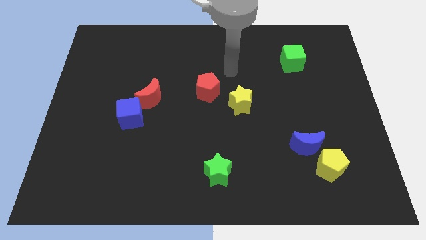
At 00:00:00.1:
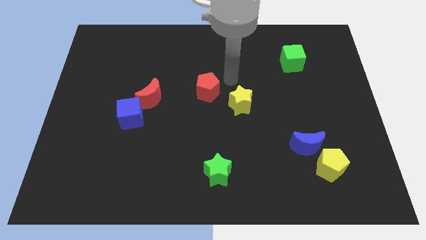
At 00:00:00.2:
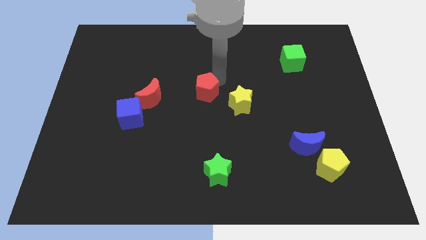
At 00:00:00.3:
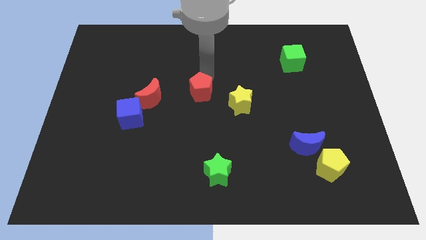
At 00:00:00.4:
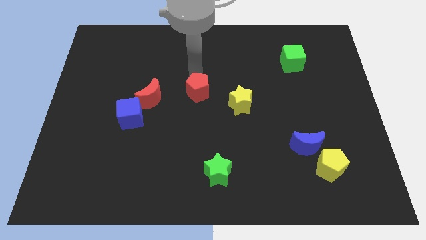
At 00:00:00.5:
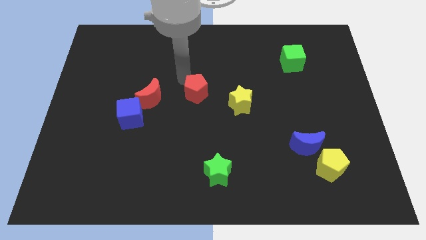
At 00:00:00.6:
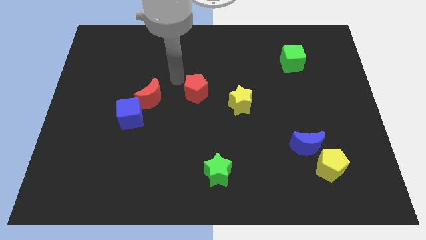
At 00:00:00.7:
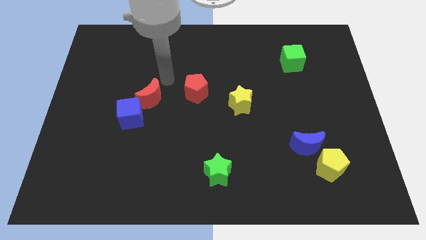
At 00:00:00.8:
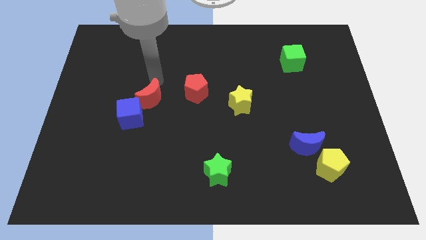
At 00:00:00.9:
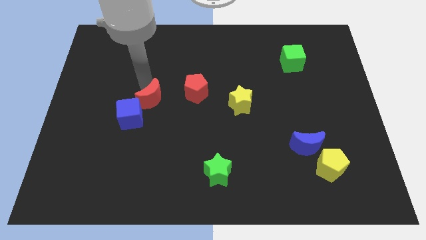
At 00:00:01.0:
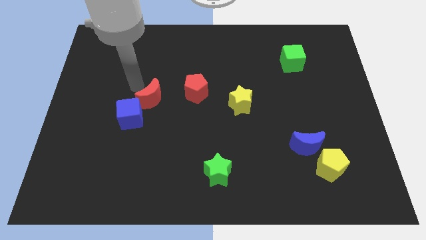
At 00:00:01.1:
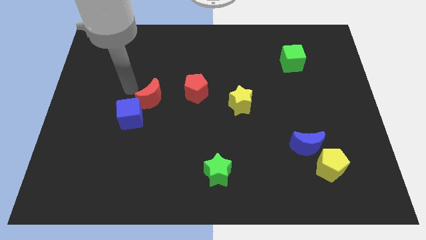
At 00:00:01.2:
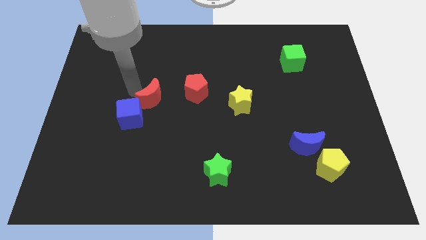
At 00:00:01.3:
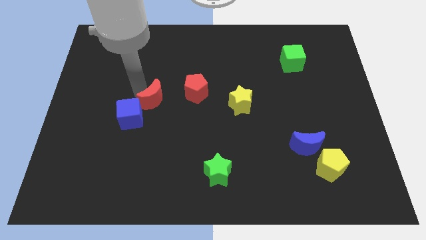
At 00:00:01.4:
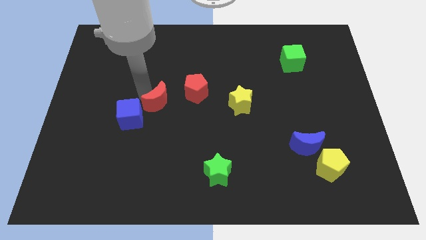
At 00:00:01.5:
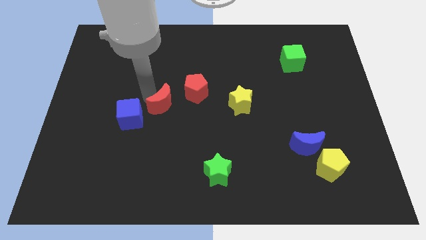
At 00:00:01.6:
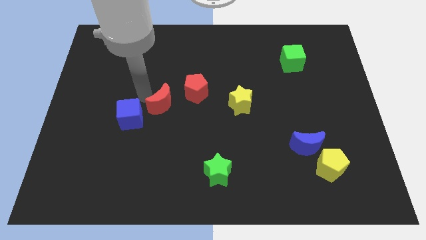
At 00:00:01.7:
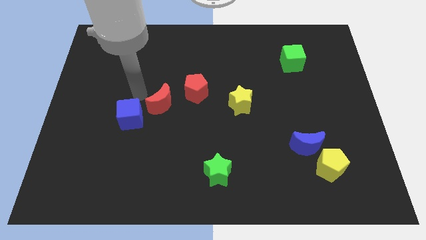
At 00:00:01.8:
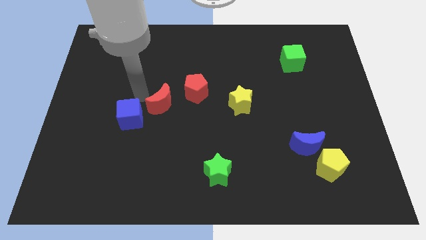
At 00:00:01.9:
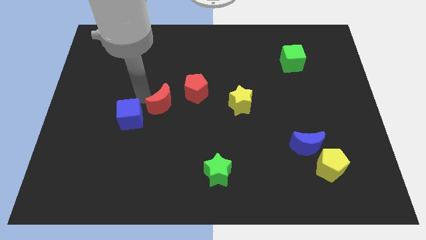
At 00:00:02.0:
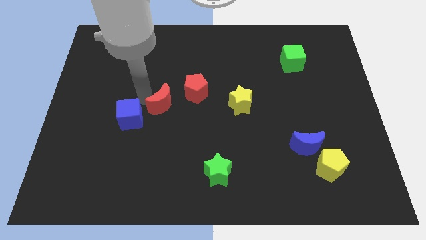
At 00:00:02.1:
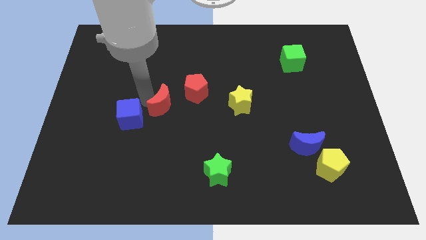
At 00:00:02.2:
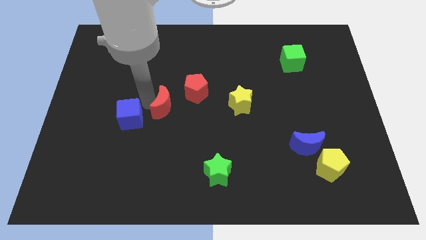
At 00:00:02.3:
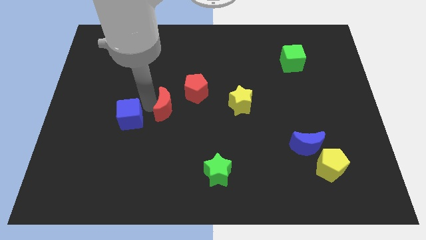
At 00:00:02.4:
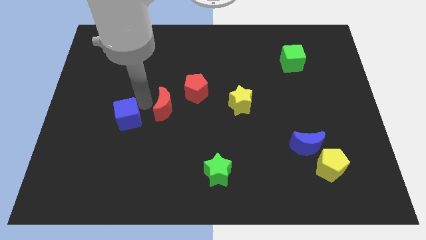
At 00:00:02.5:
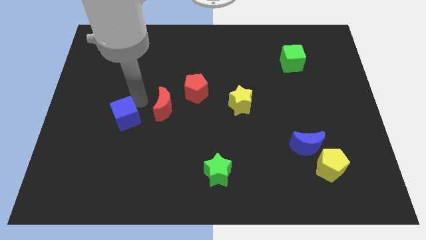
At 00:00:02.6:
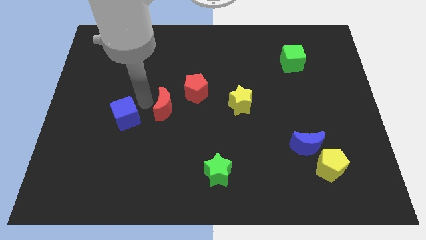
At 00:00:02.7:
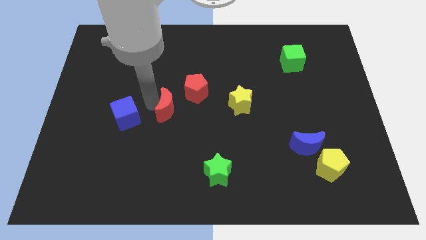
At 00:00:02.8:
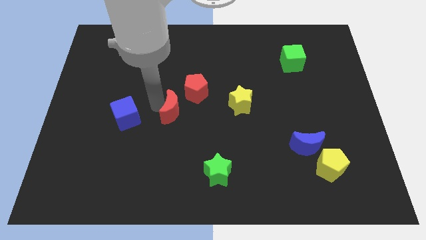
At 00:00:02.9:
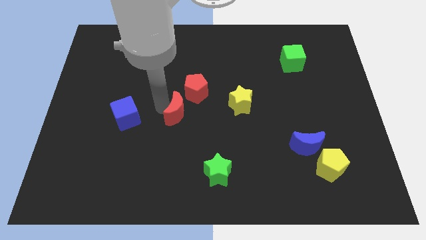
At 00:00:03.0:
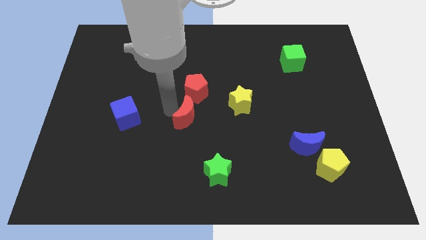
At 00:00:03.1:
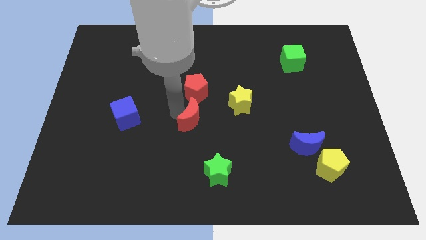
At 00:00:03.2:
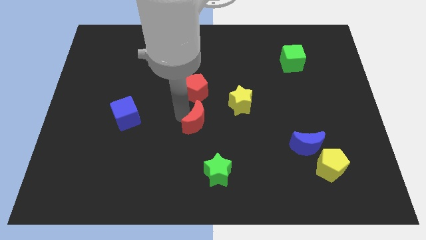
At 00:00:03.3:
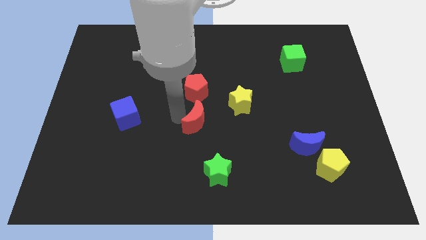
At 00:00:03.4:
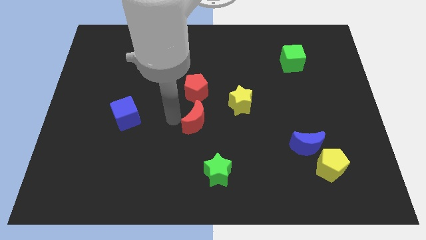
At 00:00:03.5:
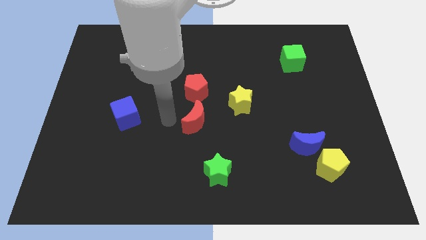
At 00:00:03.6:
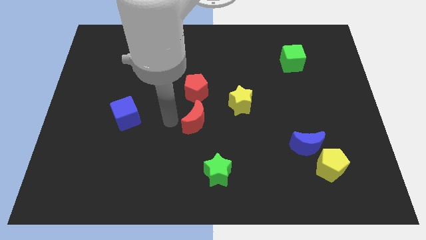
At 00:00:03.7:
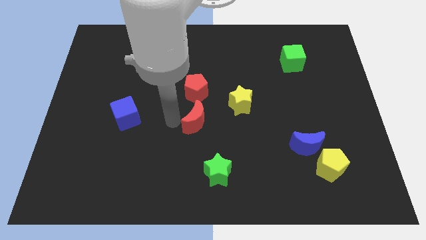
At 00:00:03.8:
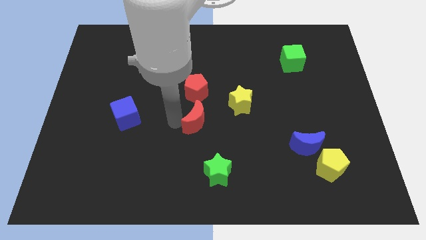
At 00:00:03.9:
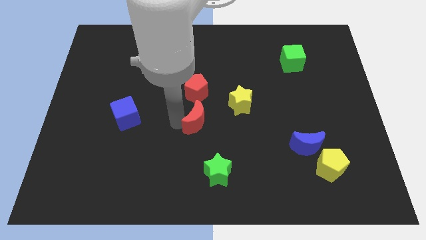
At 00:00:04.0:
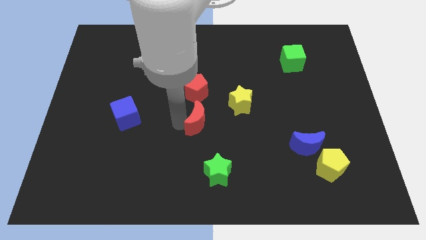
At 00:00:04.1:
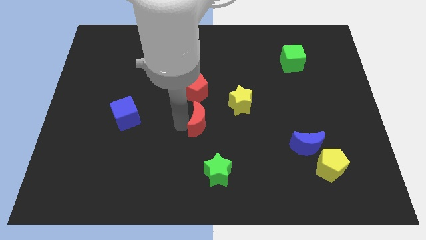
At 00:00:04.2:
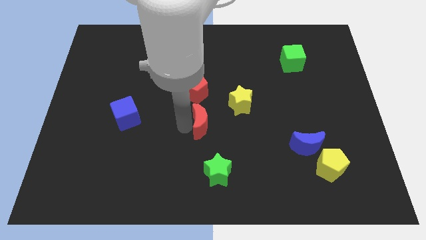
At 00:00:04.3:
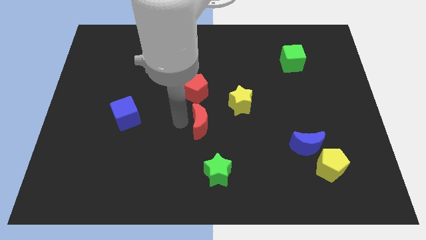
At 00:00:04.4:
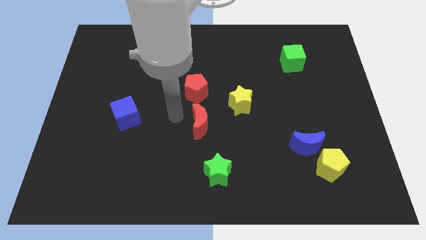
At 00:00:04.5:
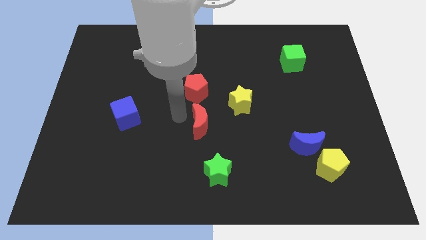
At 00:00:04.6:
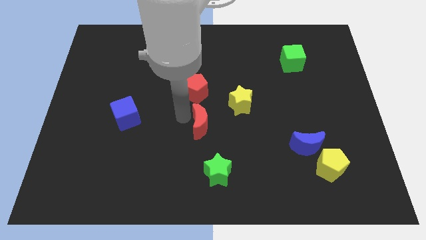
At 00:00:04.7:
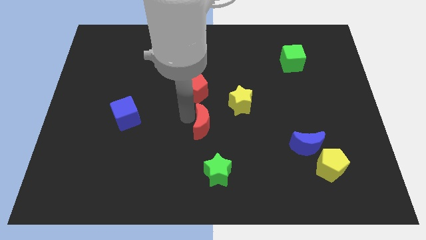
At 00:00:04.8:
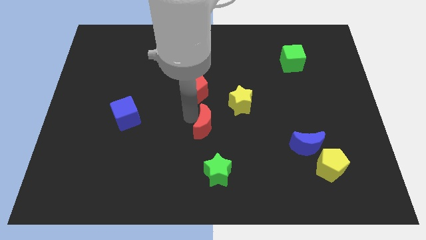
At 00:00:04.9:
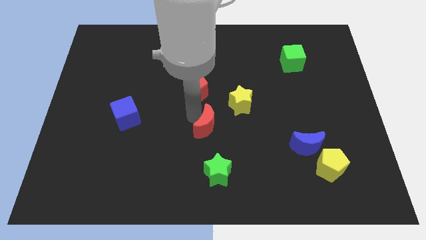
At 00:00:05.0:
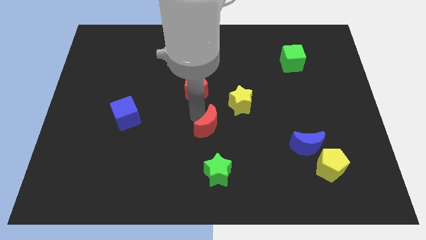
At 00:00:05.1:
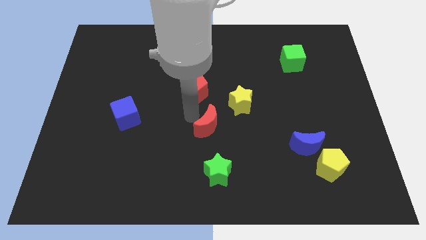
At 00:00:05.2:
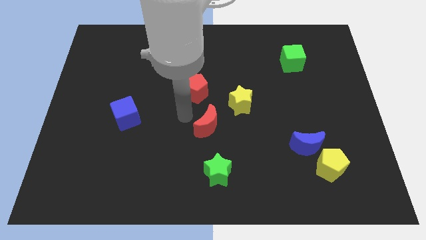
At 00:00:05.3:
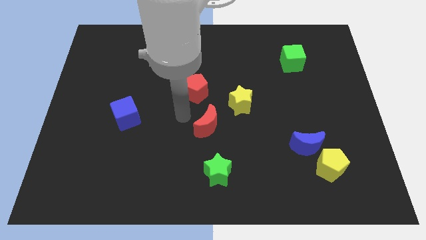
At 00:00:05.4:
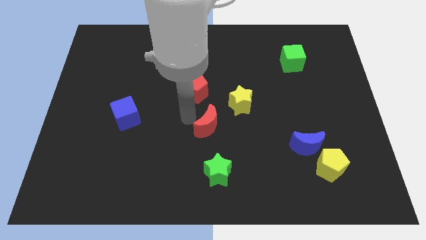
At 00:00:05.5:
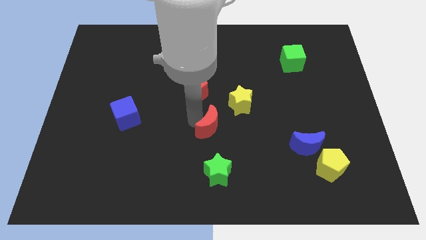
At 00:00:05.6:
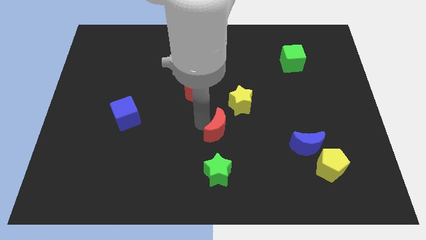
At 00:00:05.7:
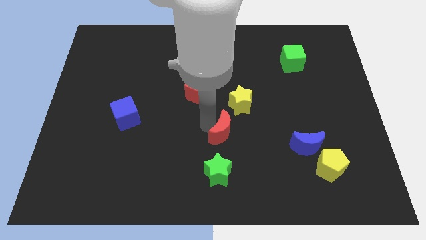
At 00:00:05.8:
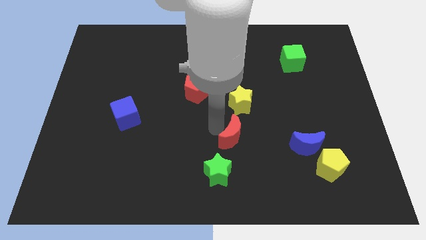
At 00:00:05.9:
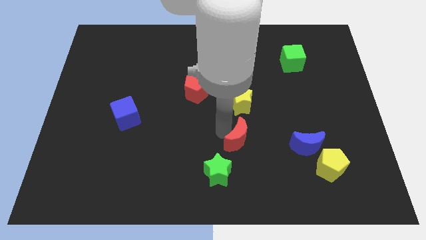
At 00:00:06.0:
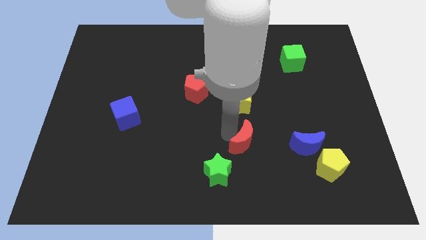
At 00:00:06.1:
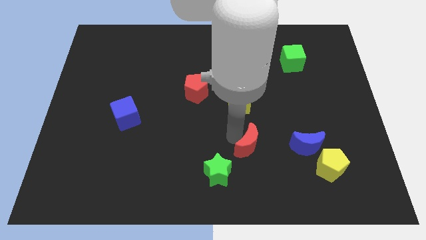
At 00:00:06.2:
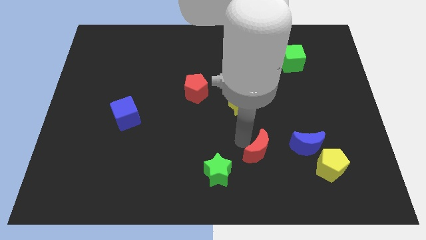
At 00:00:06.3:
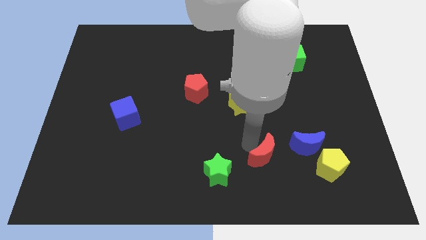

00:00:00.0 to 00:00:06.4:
put the red moon just left of the yellow pentagon

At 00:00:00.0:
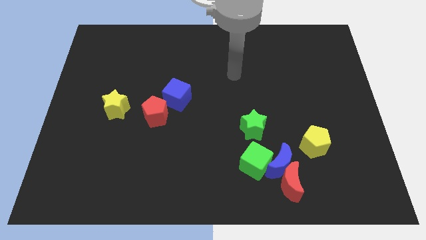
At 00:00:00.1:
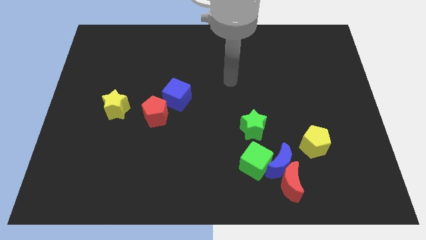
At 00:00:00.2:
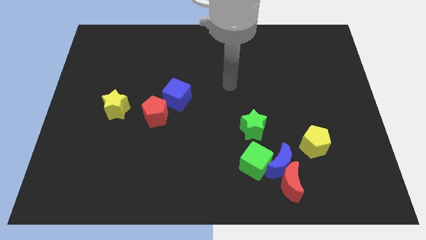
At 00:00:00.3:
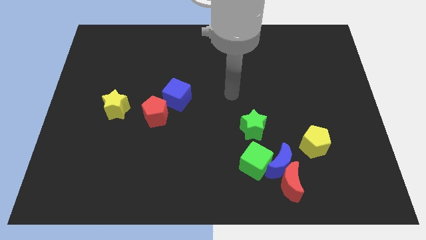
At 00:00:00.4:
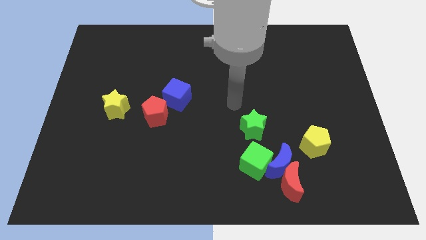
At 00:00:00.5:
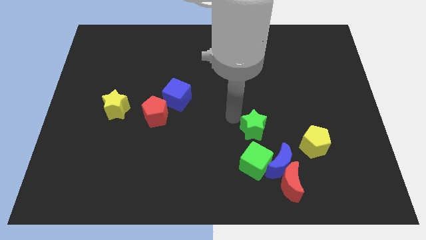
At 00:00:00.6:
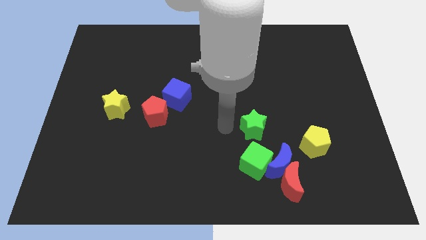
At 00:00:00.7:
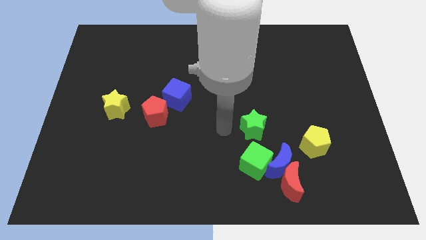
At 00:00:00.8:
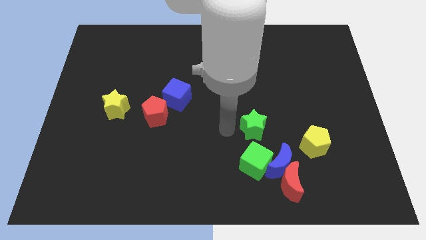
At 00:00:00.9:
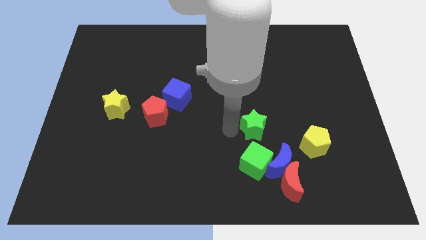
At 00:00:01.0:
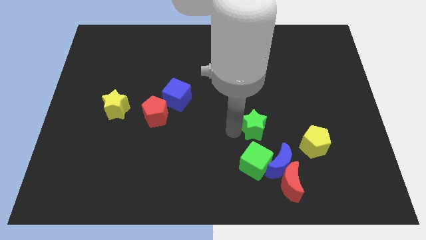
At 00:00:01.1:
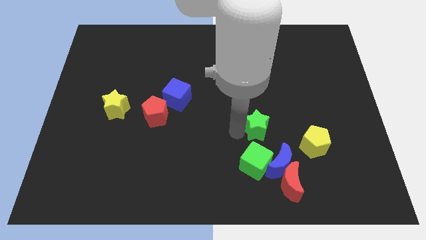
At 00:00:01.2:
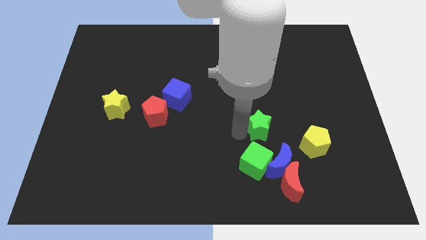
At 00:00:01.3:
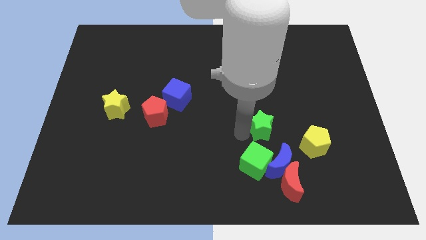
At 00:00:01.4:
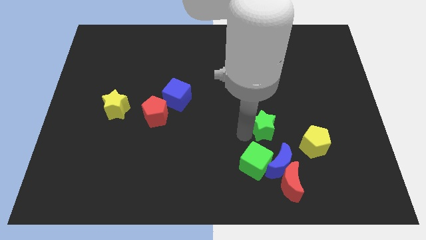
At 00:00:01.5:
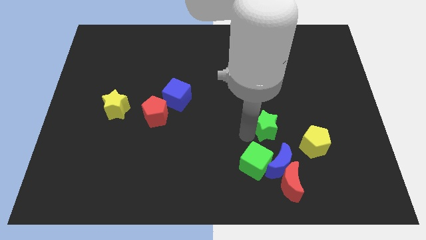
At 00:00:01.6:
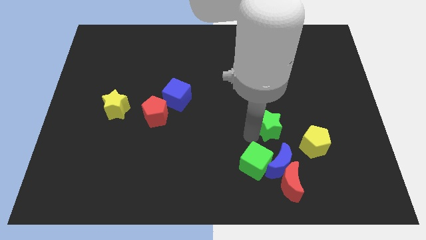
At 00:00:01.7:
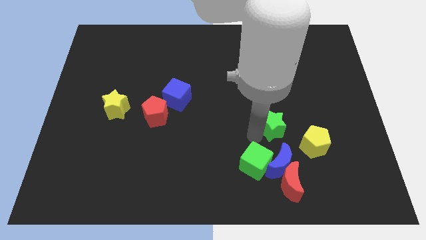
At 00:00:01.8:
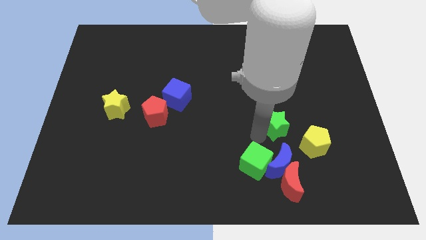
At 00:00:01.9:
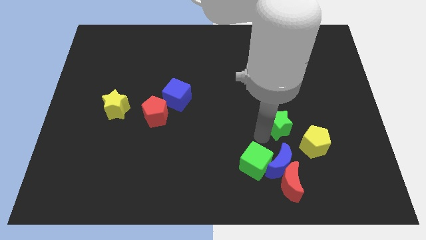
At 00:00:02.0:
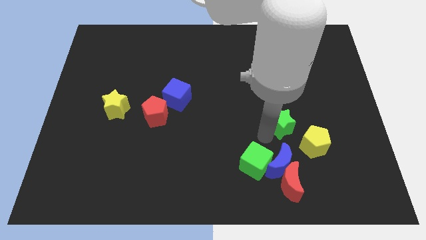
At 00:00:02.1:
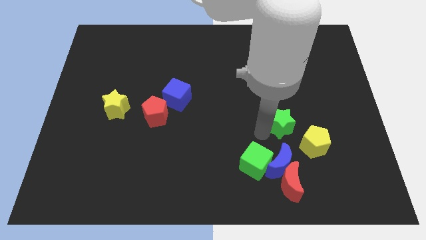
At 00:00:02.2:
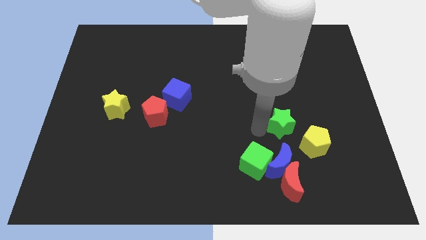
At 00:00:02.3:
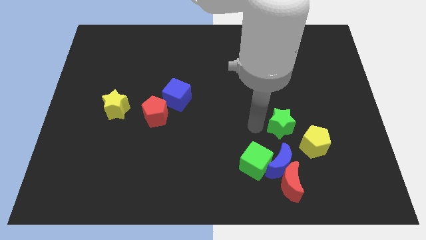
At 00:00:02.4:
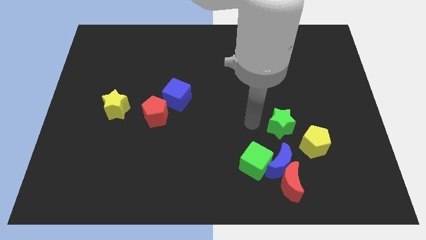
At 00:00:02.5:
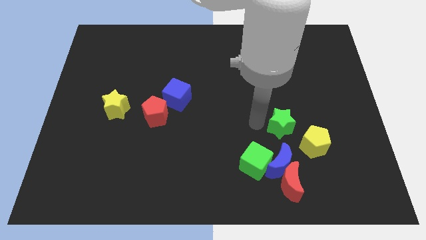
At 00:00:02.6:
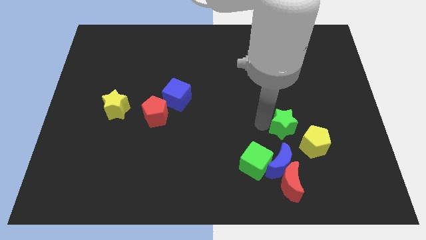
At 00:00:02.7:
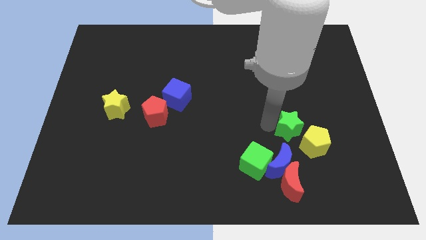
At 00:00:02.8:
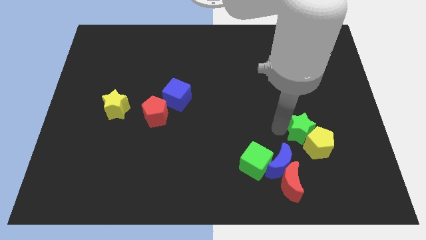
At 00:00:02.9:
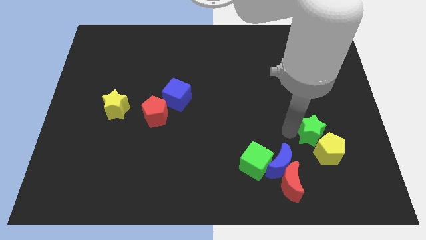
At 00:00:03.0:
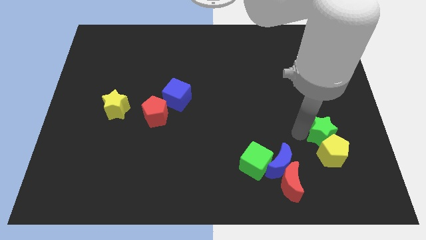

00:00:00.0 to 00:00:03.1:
put the green star to the top right side of the yellow pentagon
